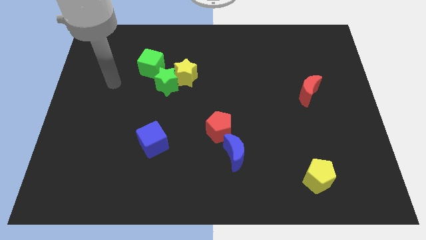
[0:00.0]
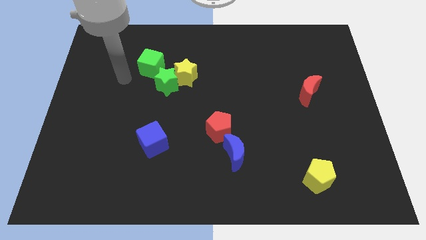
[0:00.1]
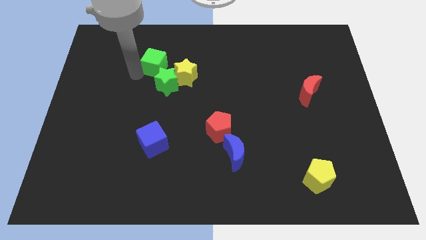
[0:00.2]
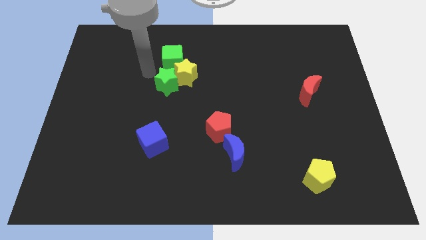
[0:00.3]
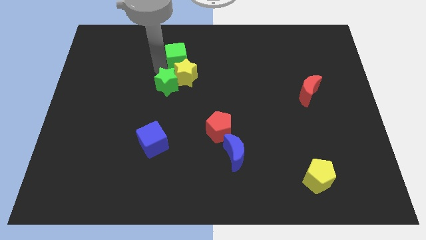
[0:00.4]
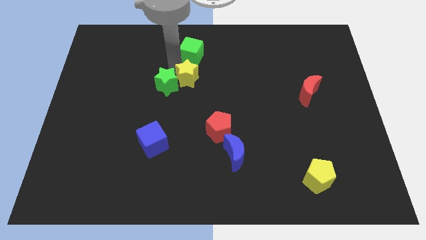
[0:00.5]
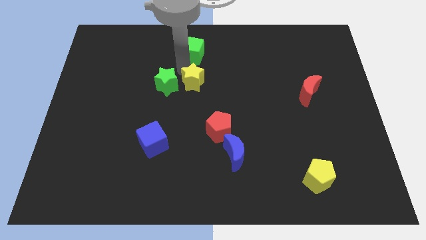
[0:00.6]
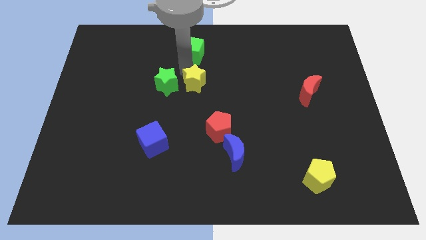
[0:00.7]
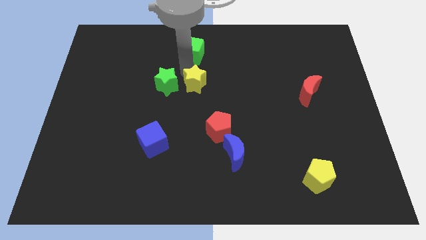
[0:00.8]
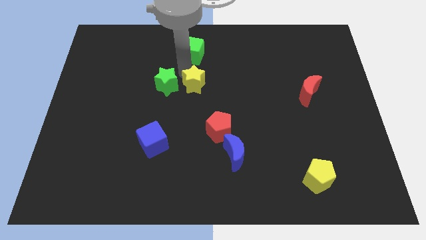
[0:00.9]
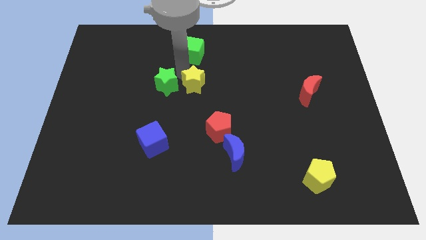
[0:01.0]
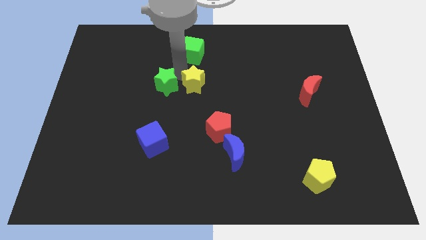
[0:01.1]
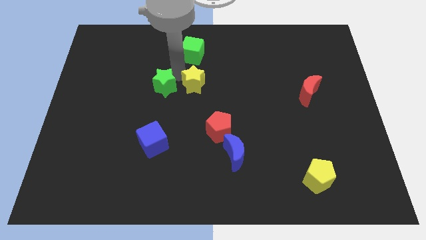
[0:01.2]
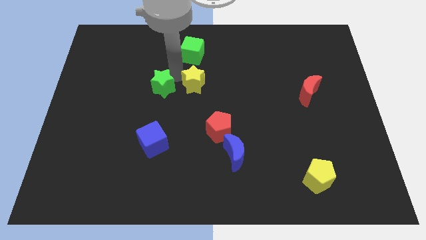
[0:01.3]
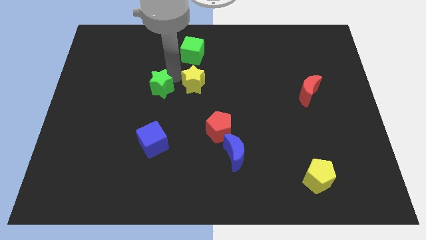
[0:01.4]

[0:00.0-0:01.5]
move the green star away from the yellow star and green cube

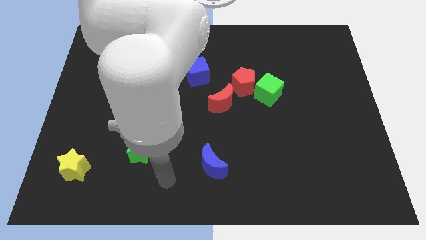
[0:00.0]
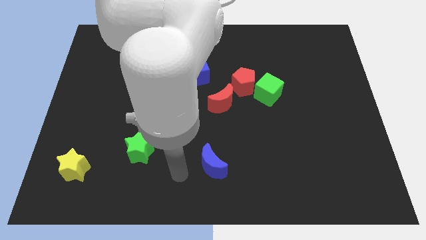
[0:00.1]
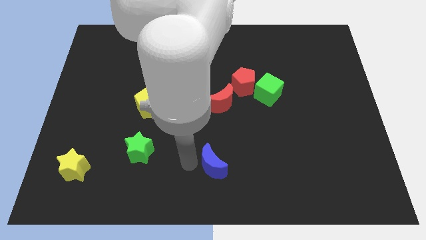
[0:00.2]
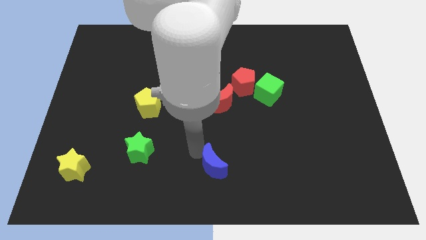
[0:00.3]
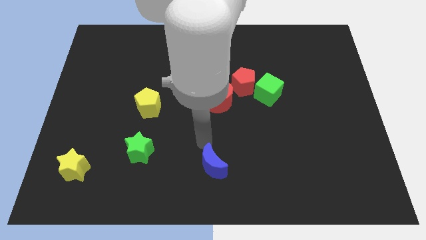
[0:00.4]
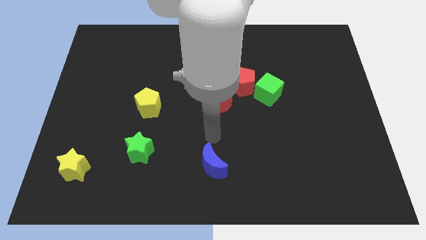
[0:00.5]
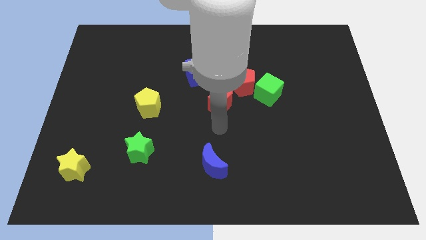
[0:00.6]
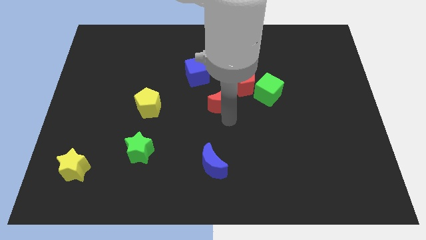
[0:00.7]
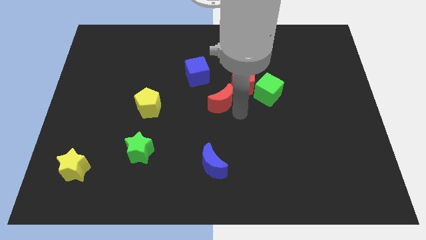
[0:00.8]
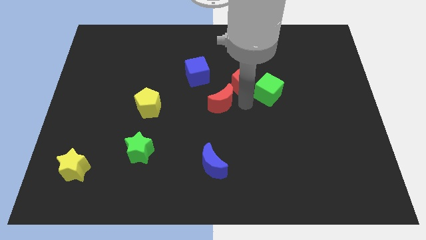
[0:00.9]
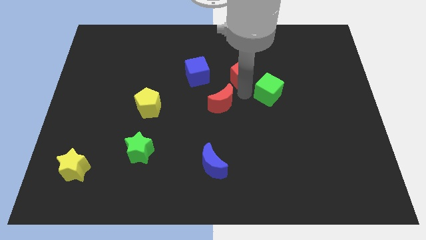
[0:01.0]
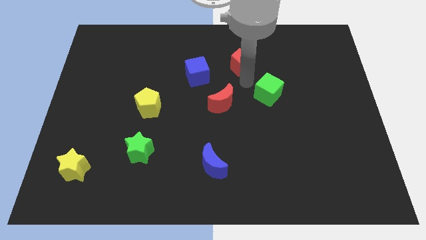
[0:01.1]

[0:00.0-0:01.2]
separate the green cube from the red pentagon

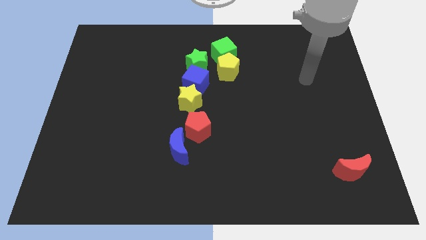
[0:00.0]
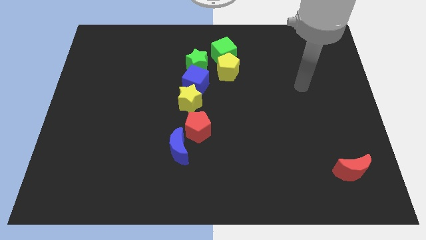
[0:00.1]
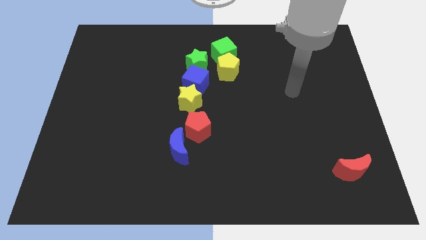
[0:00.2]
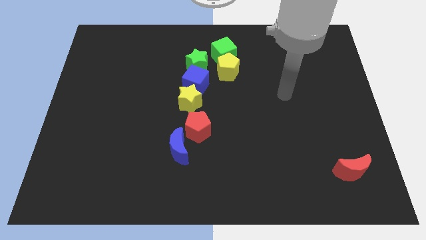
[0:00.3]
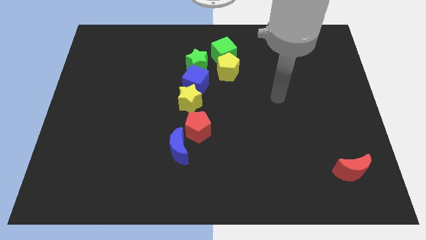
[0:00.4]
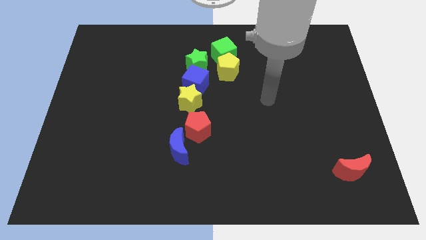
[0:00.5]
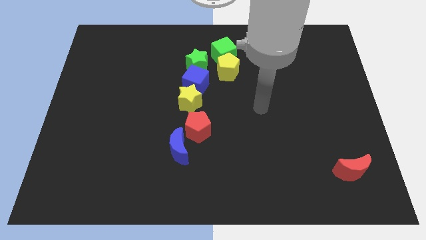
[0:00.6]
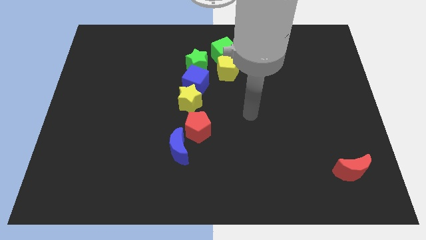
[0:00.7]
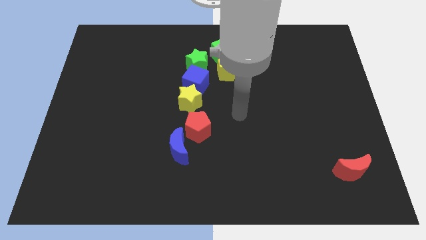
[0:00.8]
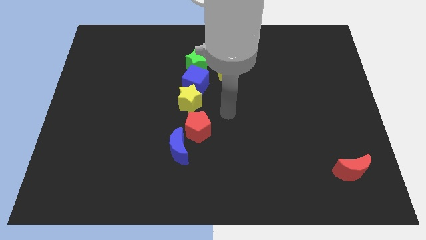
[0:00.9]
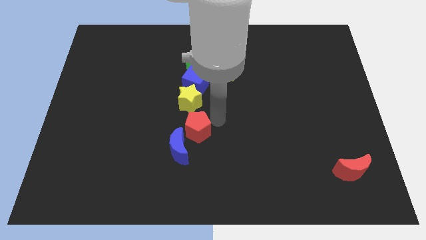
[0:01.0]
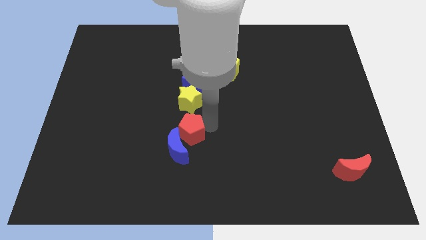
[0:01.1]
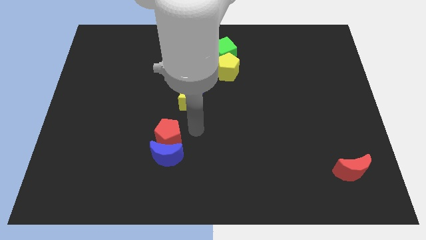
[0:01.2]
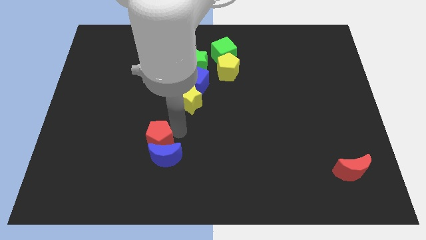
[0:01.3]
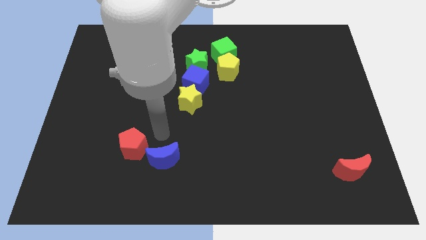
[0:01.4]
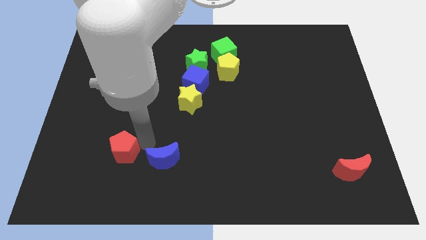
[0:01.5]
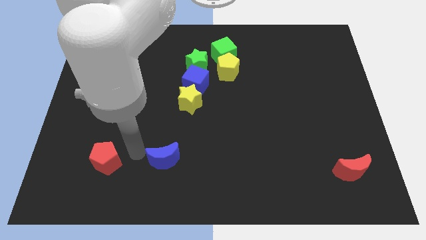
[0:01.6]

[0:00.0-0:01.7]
separate the blue moon from the red pentagon

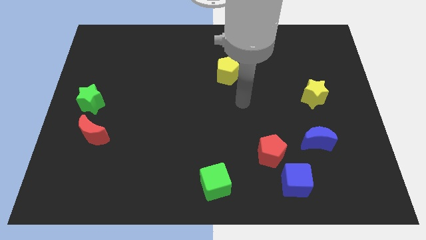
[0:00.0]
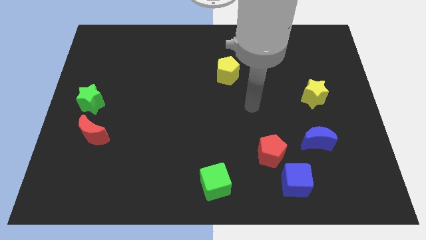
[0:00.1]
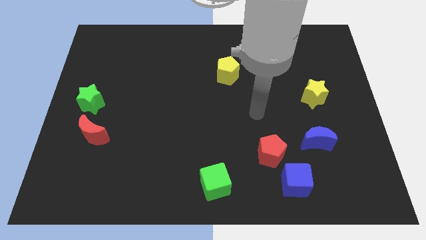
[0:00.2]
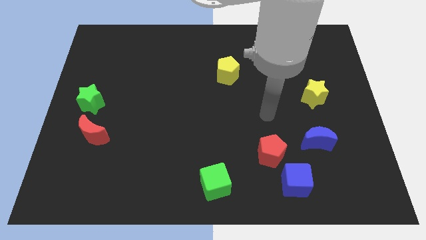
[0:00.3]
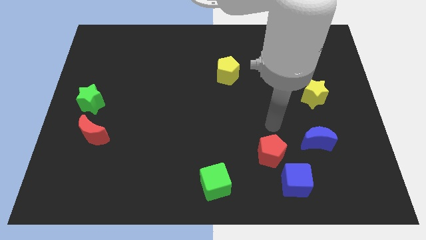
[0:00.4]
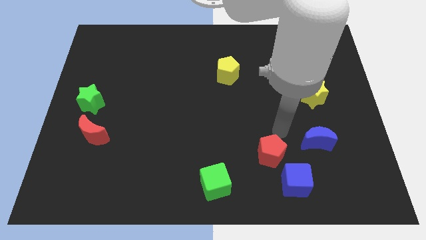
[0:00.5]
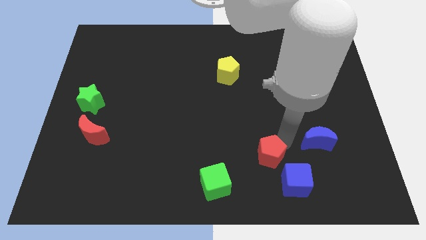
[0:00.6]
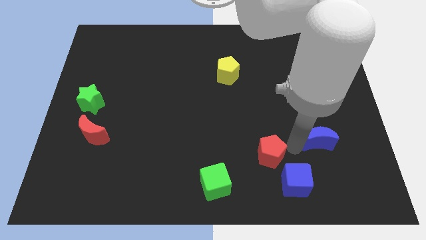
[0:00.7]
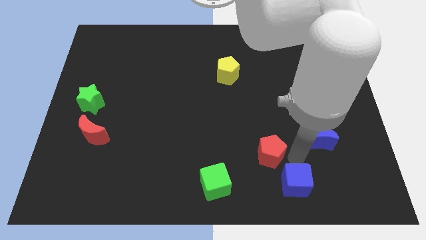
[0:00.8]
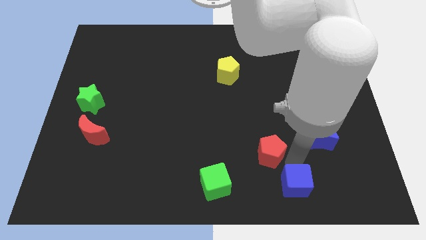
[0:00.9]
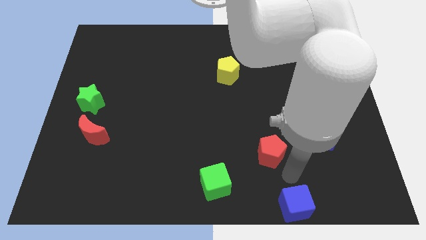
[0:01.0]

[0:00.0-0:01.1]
pull the red pentagon apart from the blue cube

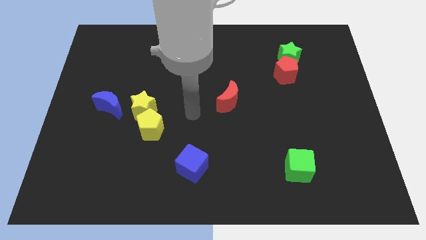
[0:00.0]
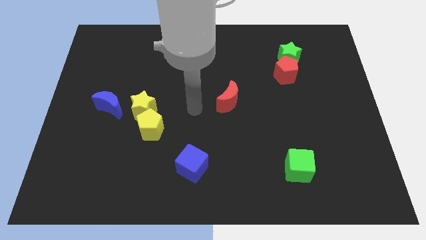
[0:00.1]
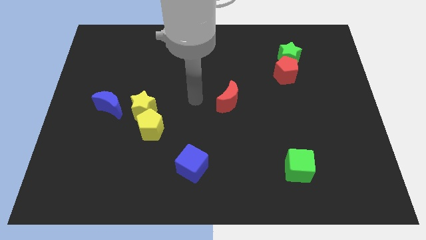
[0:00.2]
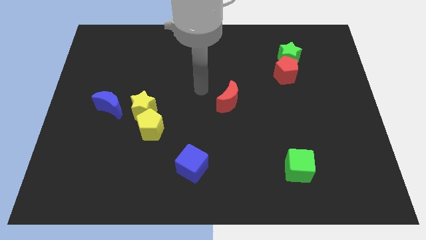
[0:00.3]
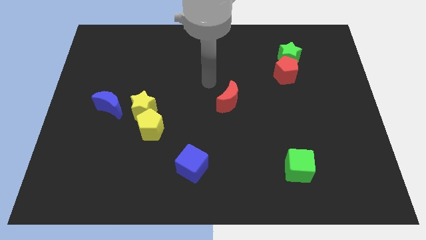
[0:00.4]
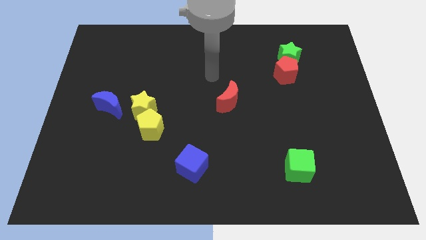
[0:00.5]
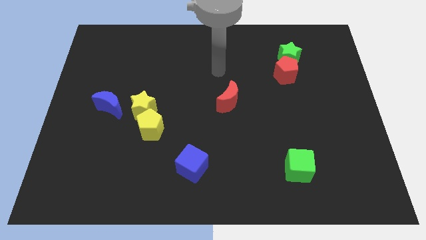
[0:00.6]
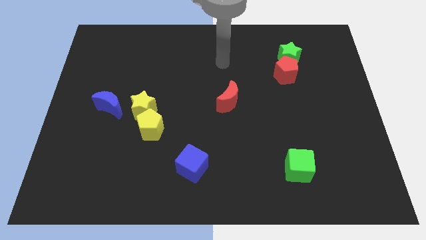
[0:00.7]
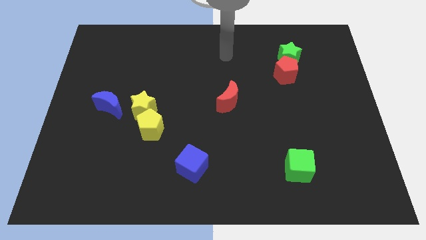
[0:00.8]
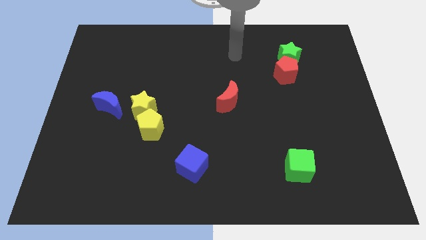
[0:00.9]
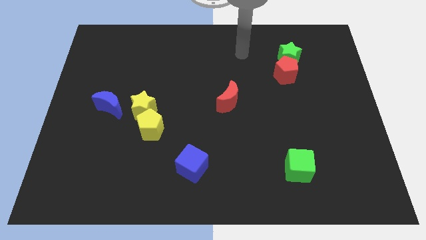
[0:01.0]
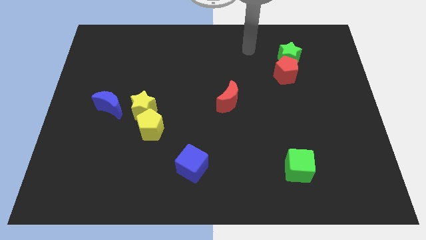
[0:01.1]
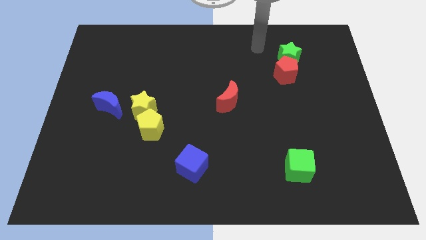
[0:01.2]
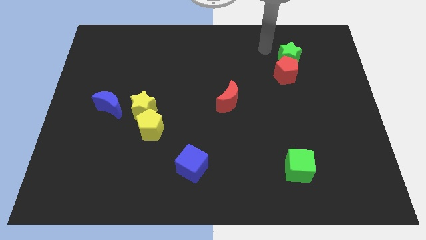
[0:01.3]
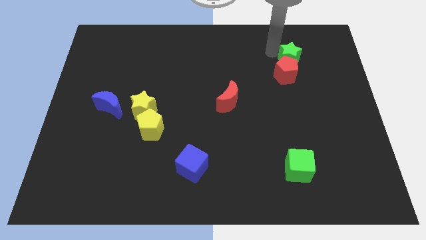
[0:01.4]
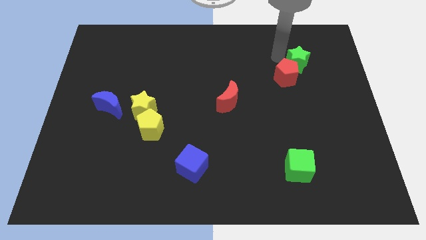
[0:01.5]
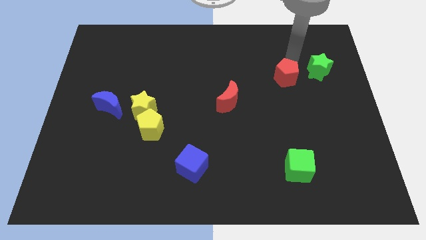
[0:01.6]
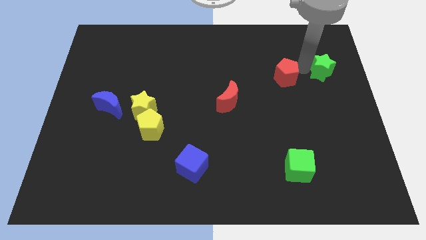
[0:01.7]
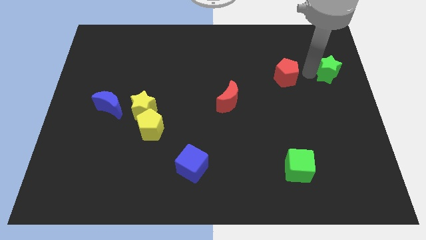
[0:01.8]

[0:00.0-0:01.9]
pull the red pentagon apart from the green star

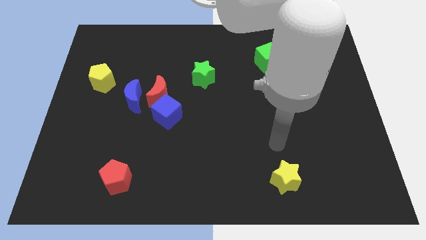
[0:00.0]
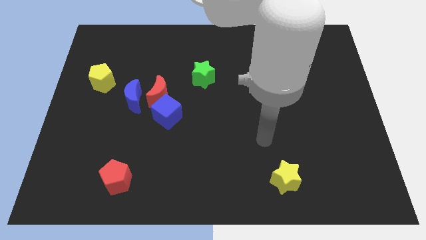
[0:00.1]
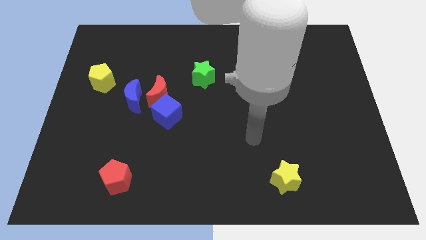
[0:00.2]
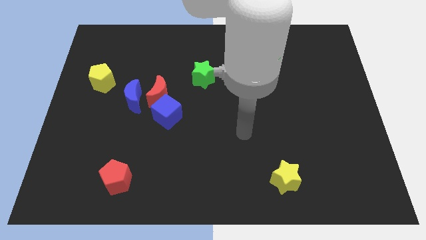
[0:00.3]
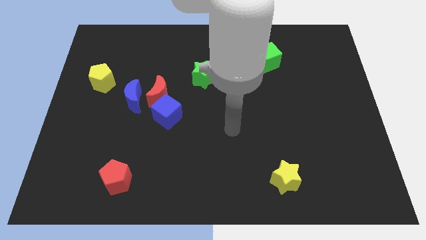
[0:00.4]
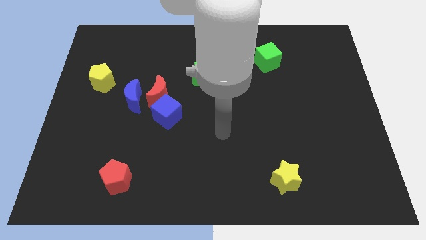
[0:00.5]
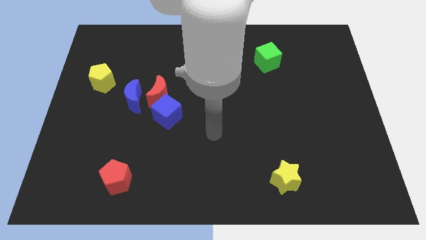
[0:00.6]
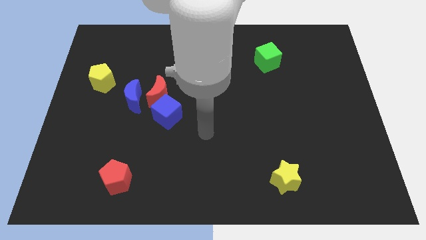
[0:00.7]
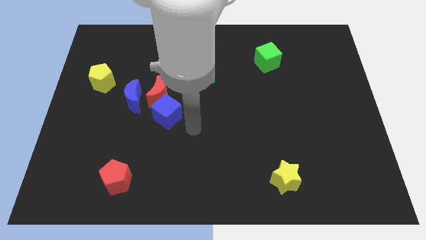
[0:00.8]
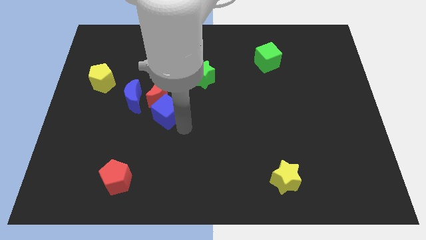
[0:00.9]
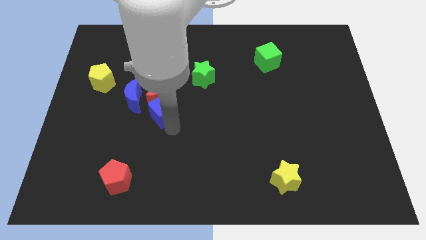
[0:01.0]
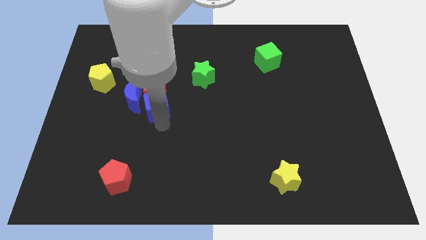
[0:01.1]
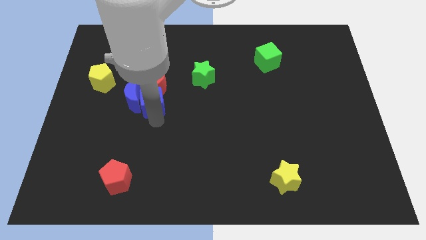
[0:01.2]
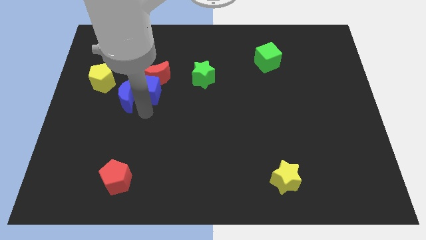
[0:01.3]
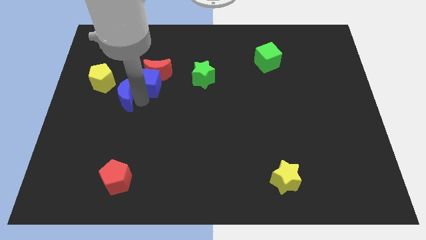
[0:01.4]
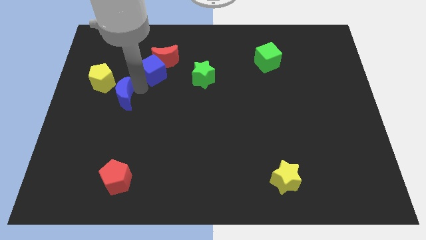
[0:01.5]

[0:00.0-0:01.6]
pull the red moon apart from the blue cube and blue moon

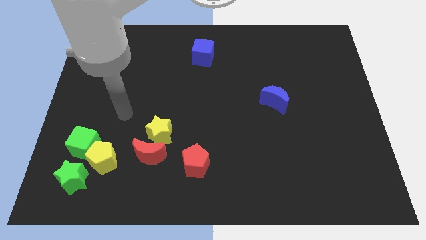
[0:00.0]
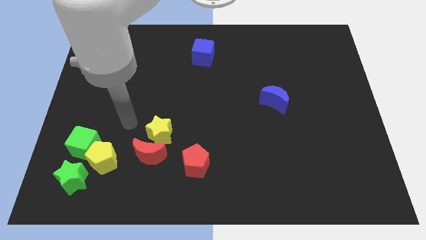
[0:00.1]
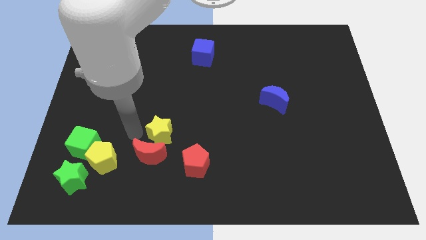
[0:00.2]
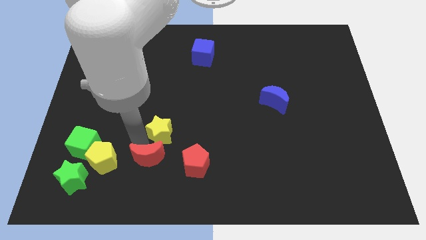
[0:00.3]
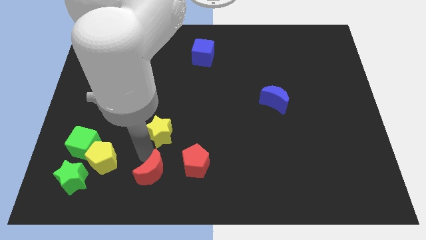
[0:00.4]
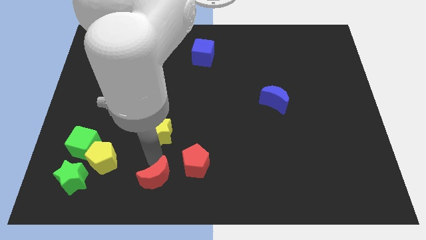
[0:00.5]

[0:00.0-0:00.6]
move the yellow star away from the red moon
